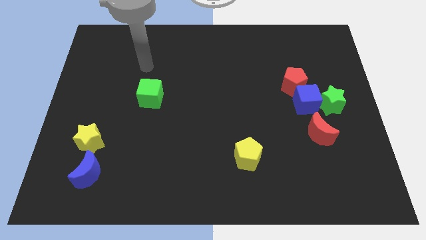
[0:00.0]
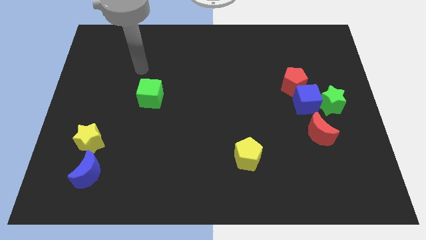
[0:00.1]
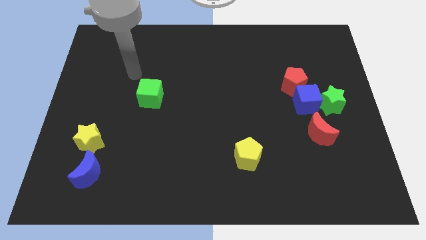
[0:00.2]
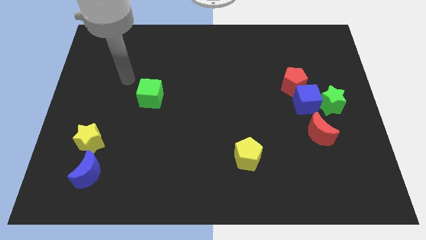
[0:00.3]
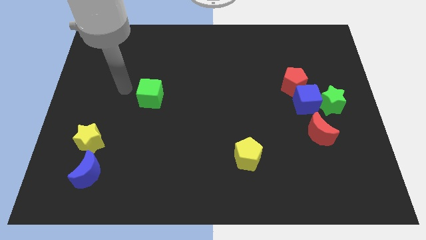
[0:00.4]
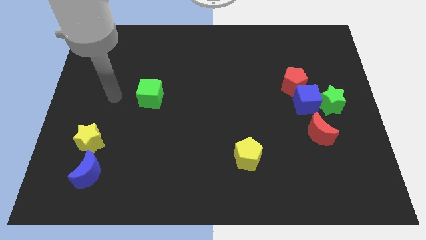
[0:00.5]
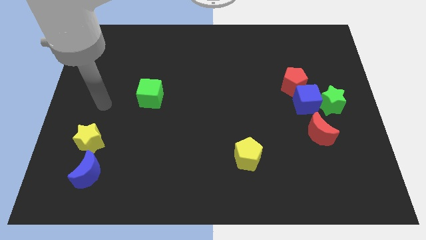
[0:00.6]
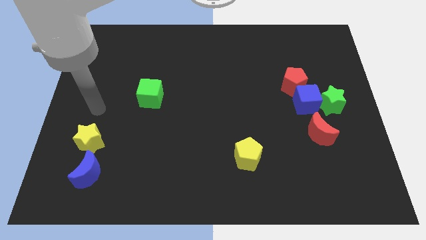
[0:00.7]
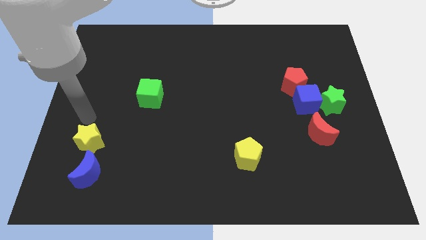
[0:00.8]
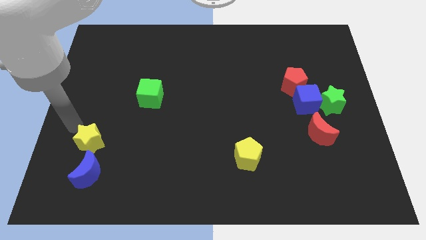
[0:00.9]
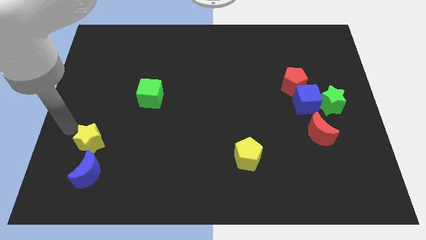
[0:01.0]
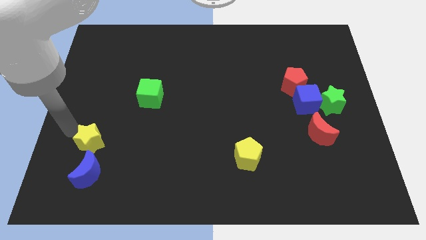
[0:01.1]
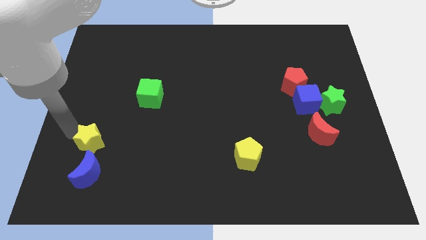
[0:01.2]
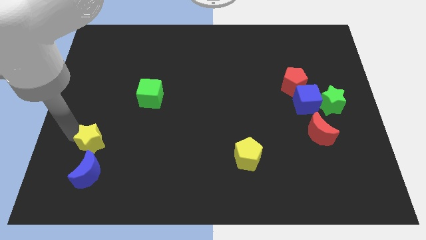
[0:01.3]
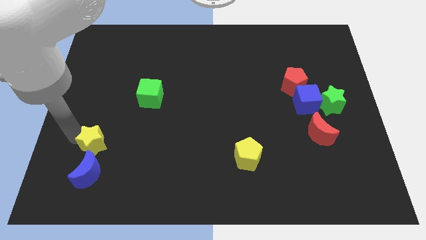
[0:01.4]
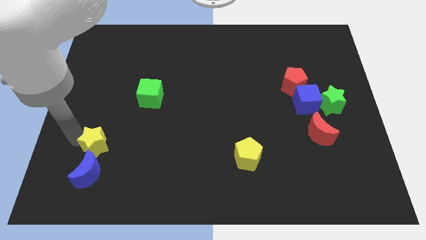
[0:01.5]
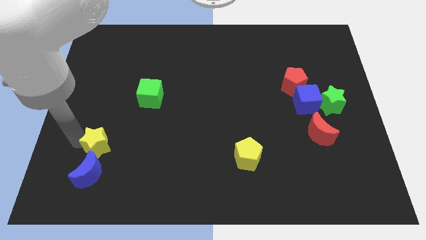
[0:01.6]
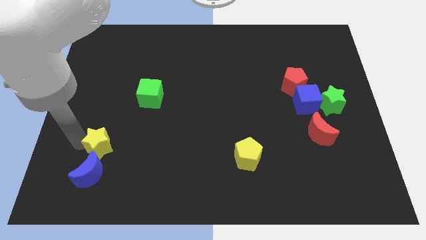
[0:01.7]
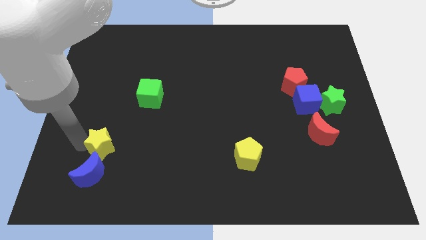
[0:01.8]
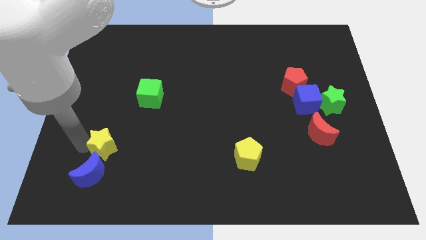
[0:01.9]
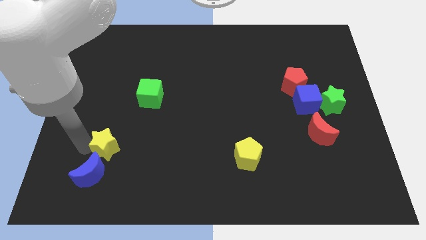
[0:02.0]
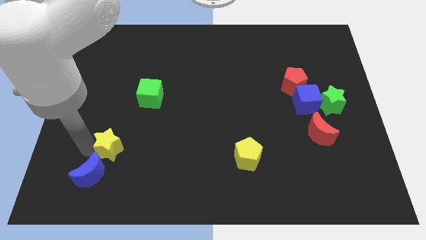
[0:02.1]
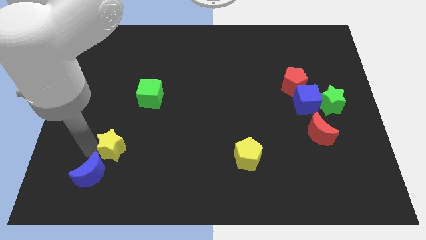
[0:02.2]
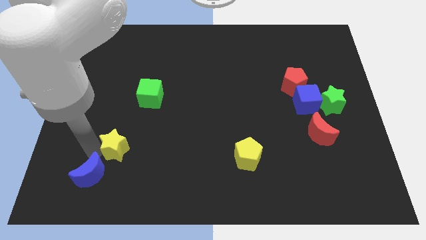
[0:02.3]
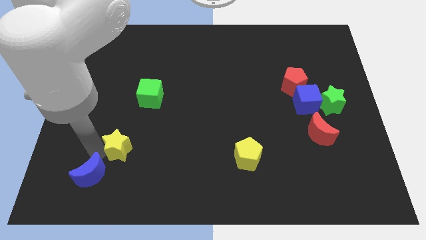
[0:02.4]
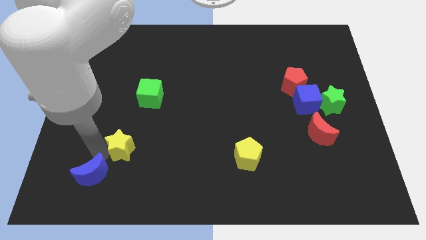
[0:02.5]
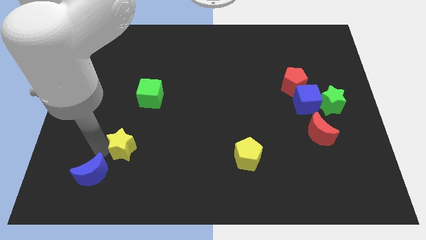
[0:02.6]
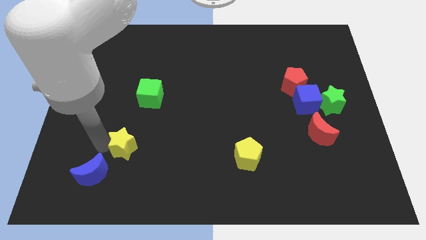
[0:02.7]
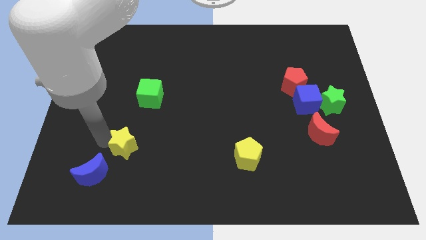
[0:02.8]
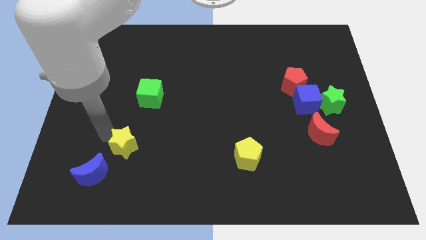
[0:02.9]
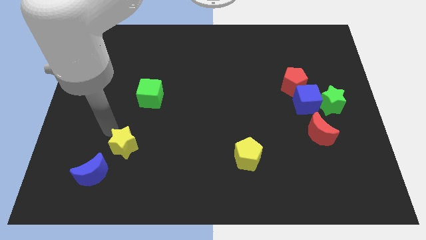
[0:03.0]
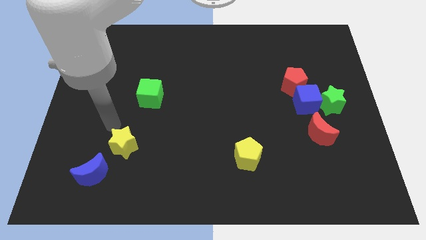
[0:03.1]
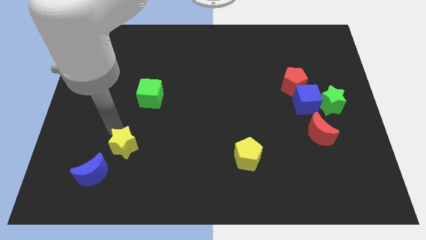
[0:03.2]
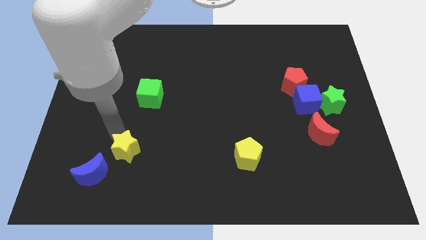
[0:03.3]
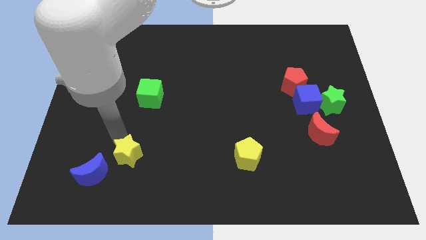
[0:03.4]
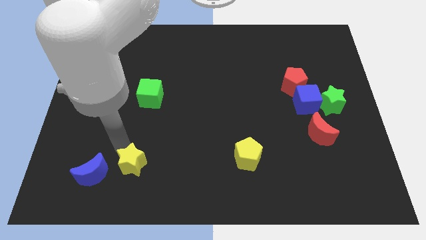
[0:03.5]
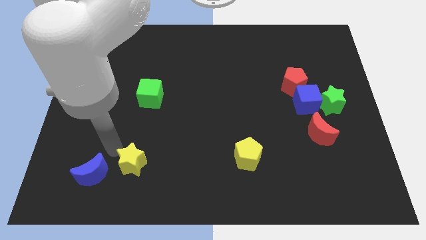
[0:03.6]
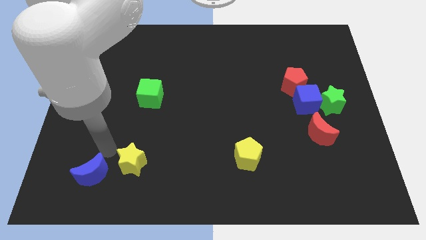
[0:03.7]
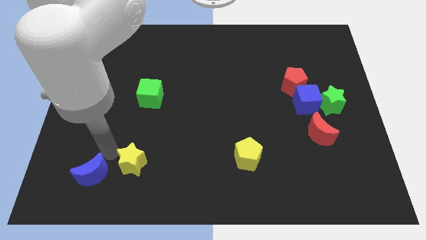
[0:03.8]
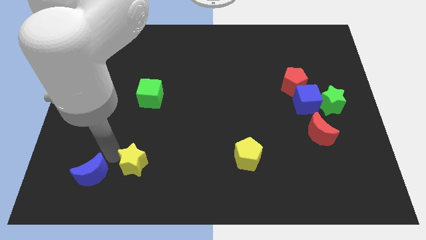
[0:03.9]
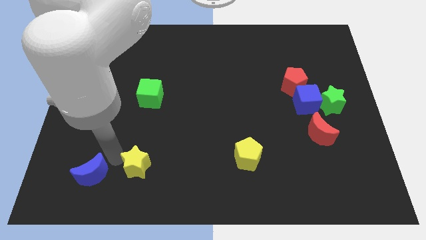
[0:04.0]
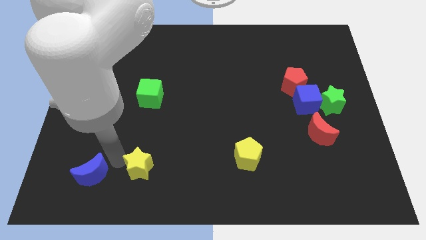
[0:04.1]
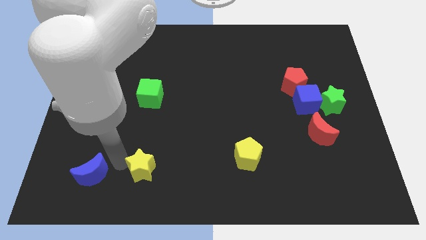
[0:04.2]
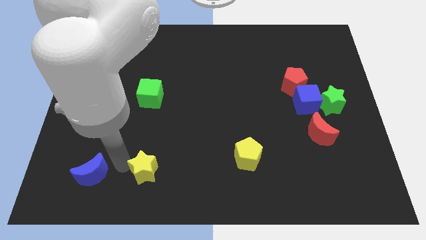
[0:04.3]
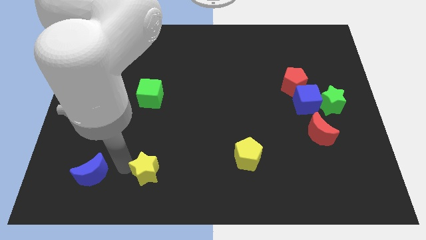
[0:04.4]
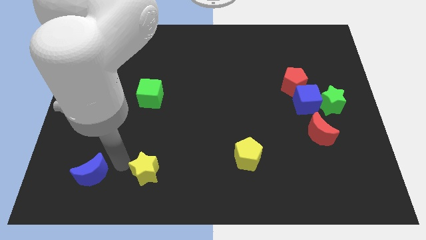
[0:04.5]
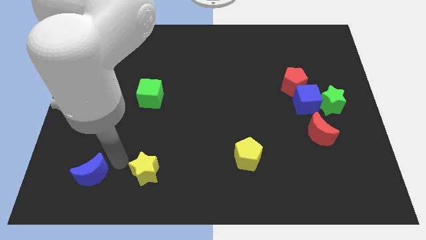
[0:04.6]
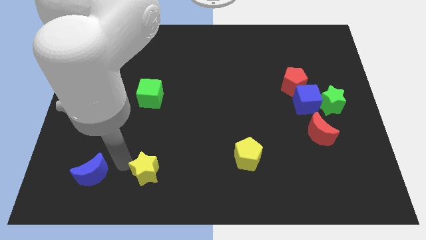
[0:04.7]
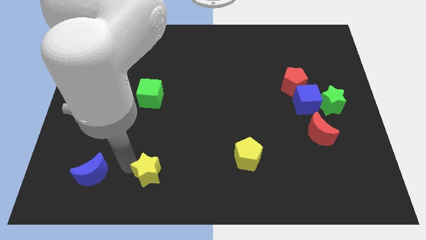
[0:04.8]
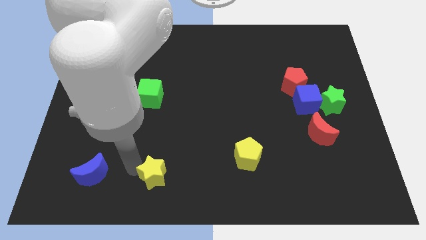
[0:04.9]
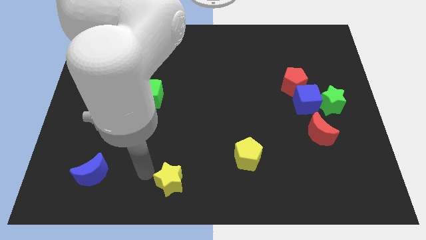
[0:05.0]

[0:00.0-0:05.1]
slide the yellow star to the bottom

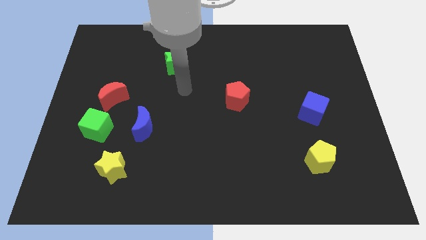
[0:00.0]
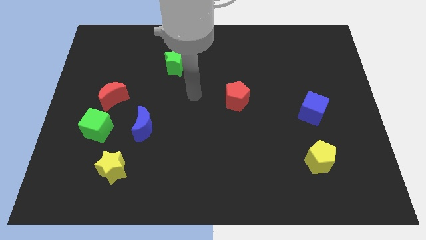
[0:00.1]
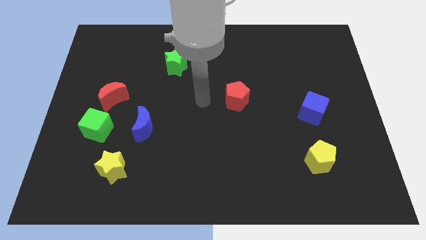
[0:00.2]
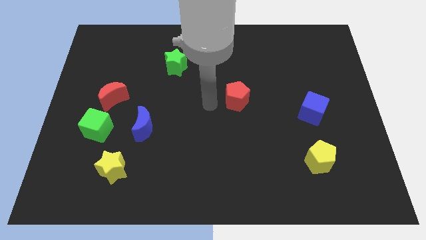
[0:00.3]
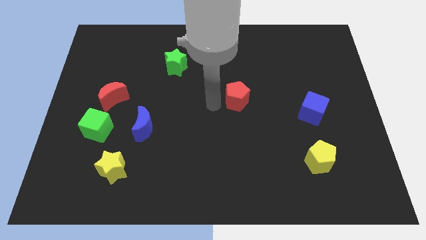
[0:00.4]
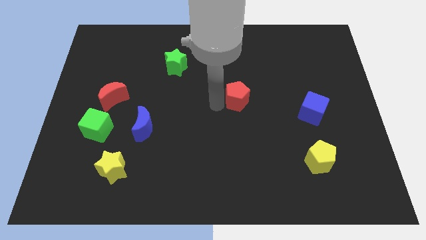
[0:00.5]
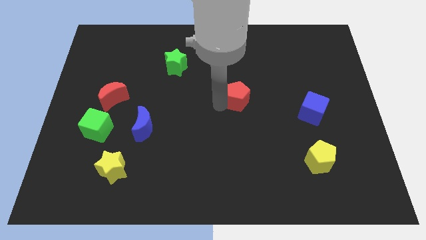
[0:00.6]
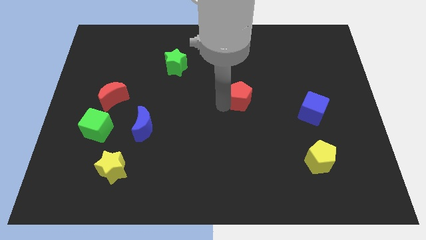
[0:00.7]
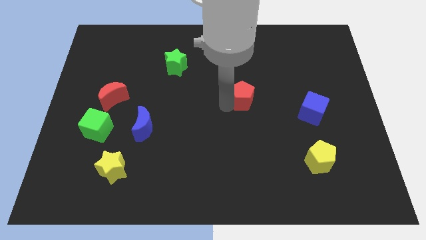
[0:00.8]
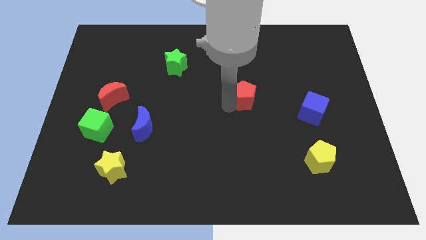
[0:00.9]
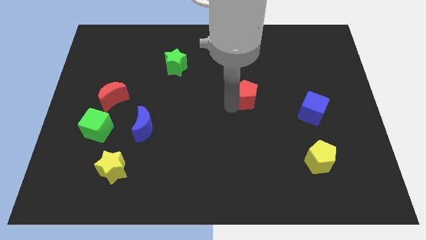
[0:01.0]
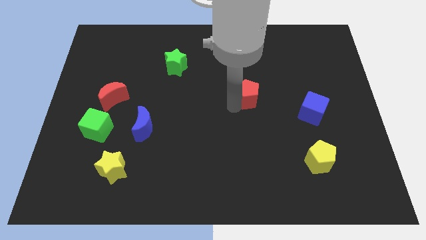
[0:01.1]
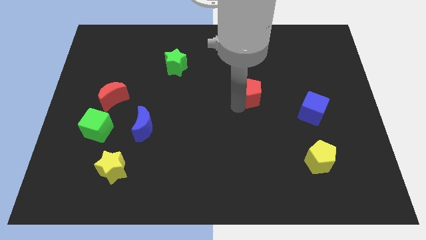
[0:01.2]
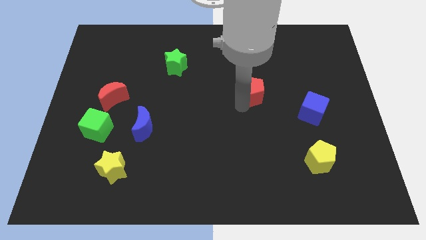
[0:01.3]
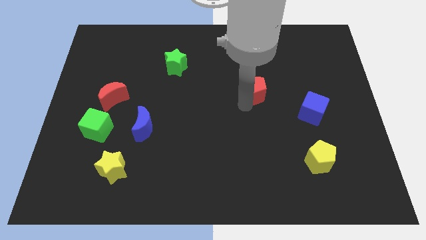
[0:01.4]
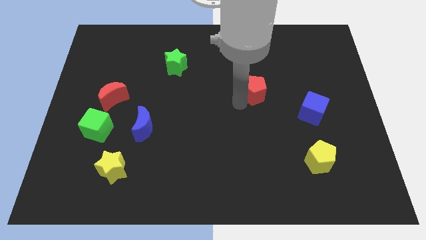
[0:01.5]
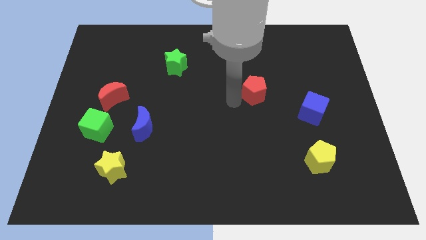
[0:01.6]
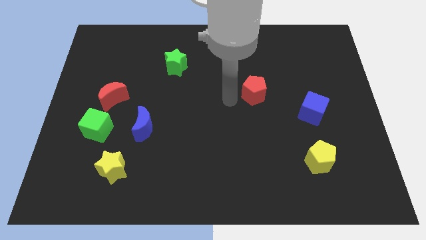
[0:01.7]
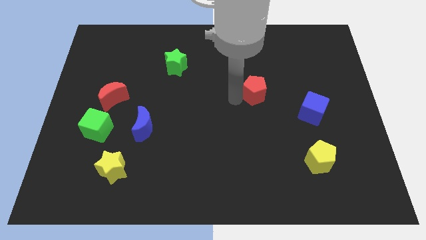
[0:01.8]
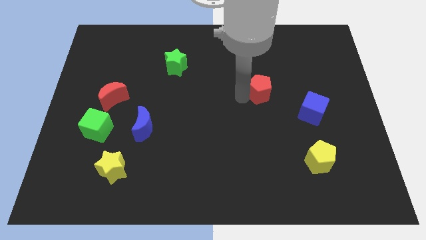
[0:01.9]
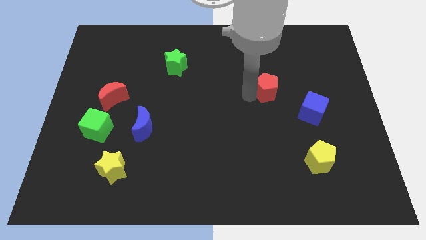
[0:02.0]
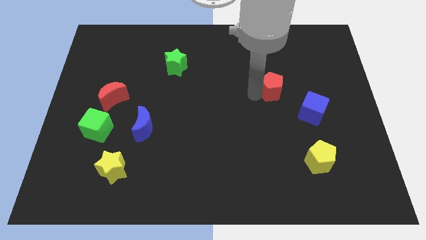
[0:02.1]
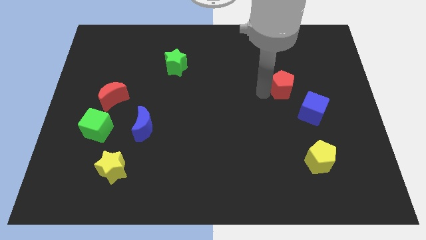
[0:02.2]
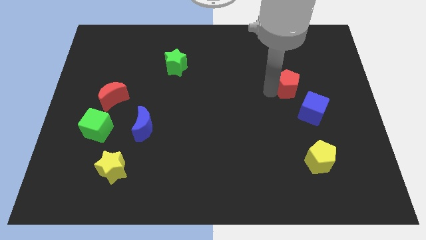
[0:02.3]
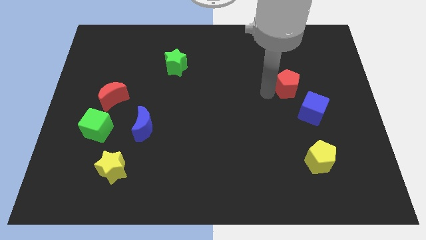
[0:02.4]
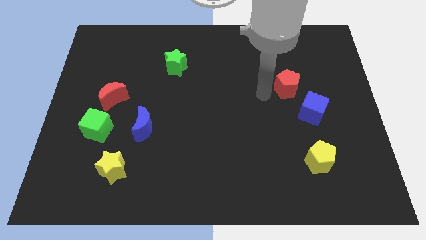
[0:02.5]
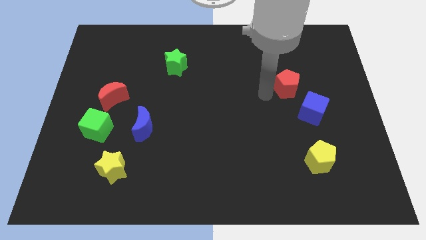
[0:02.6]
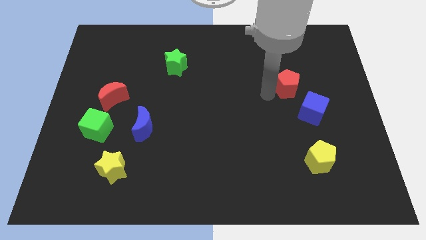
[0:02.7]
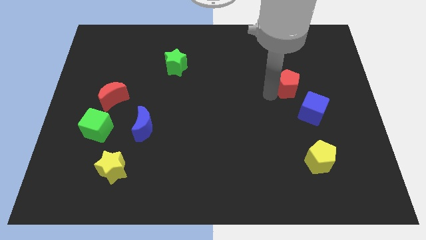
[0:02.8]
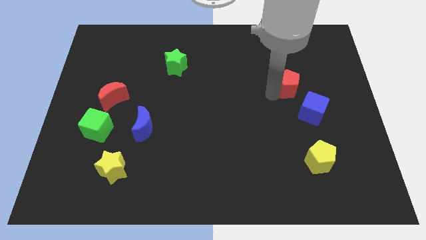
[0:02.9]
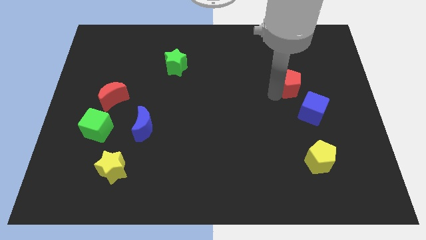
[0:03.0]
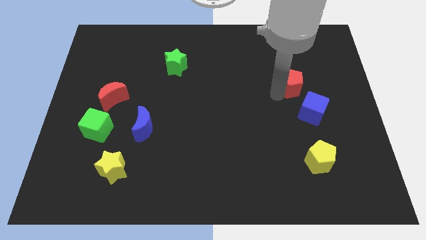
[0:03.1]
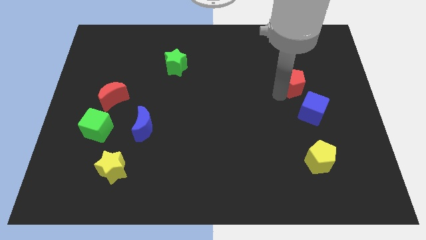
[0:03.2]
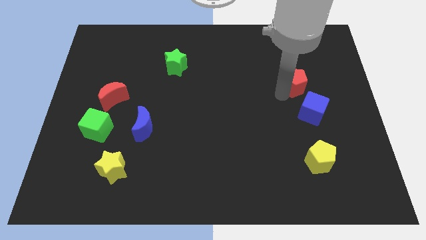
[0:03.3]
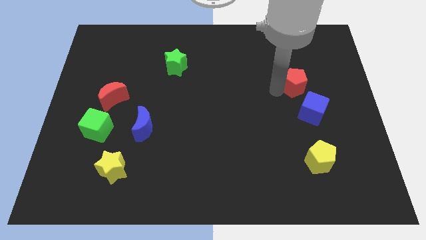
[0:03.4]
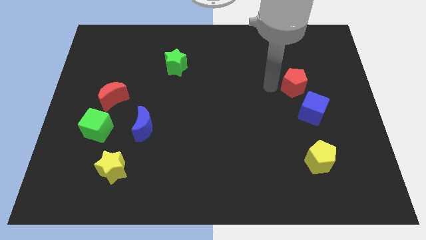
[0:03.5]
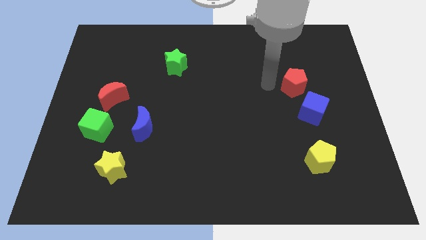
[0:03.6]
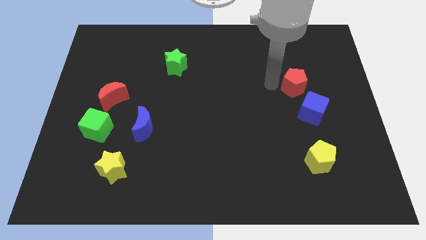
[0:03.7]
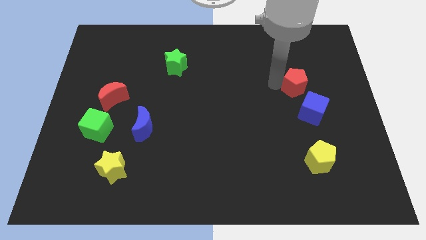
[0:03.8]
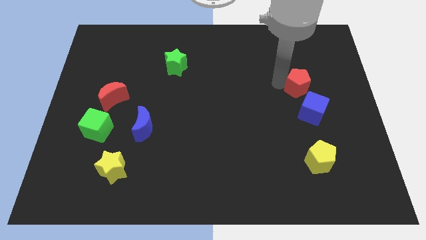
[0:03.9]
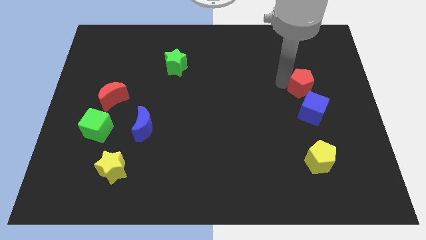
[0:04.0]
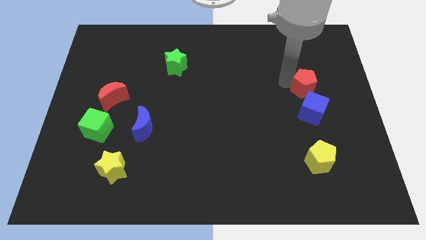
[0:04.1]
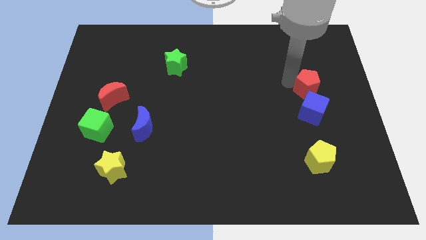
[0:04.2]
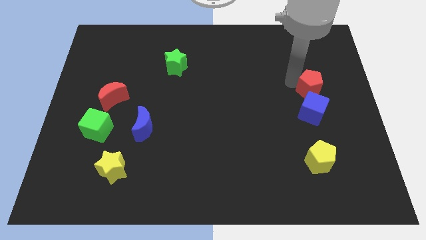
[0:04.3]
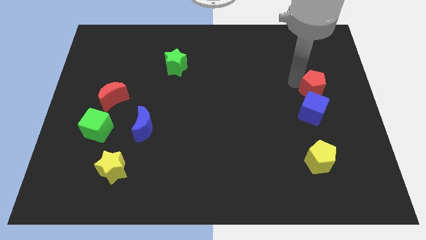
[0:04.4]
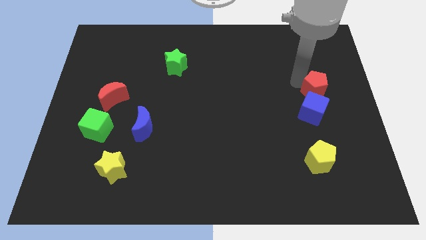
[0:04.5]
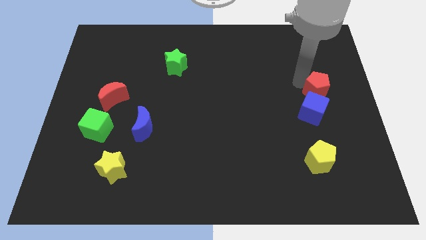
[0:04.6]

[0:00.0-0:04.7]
slide the red pentagon to the right side
